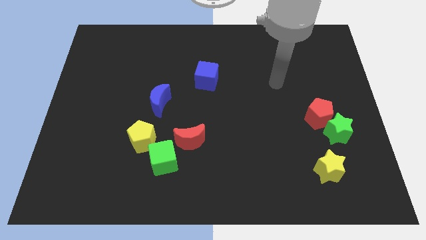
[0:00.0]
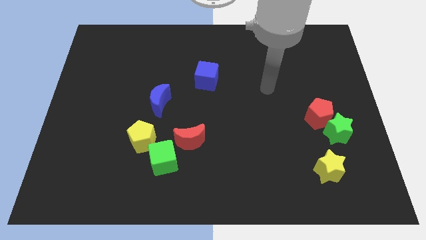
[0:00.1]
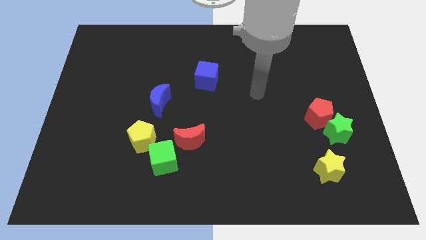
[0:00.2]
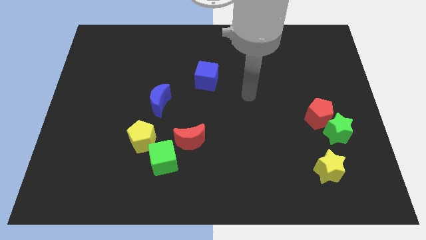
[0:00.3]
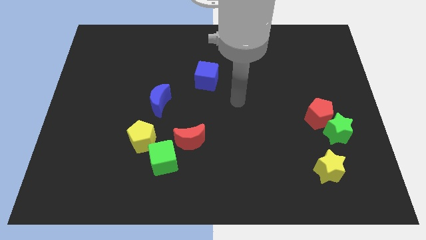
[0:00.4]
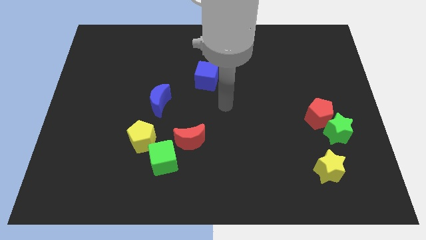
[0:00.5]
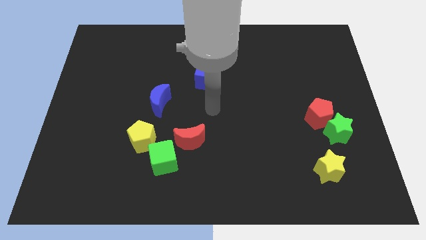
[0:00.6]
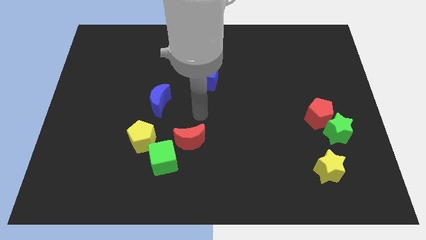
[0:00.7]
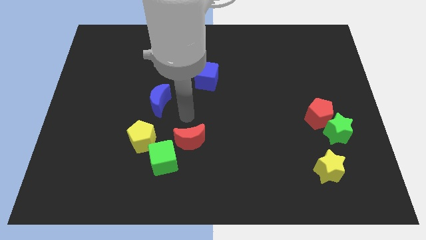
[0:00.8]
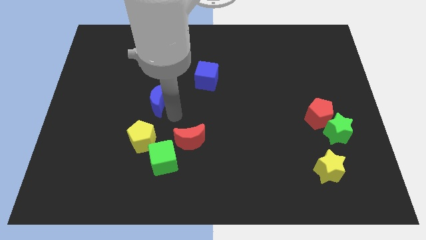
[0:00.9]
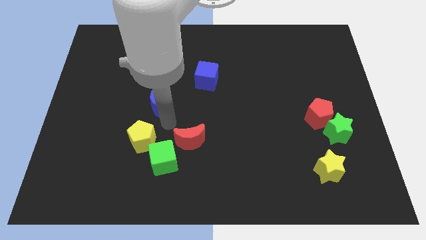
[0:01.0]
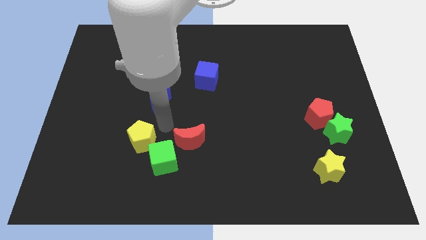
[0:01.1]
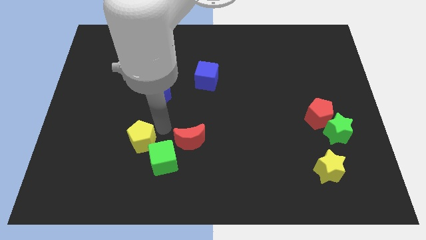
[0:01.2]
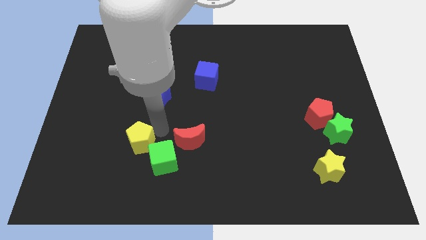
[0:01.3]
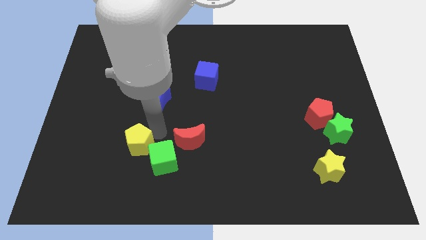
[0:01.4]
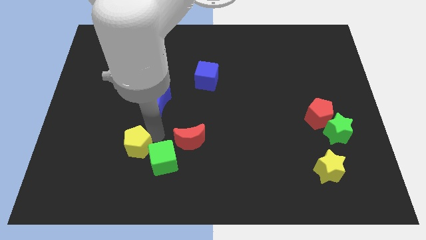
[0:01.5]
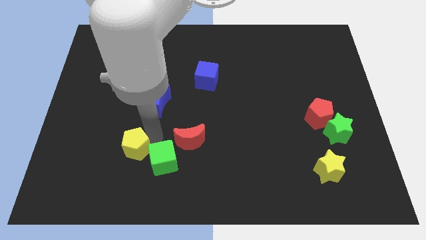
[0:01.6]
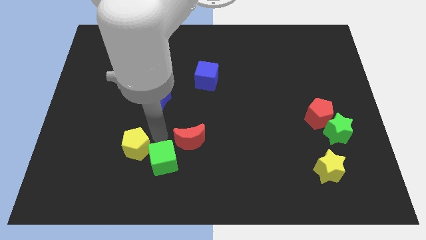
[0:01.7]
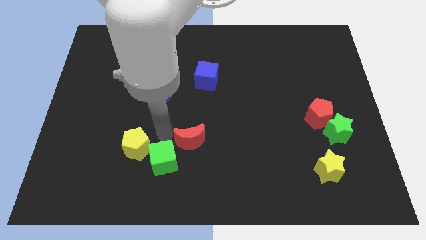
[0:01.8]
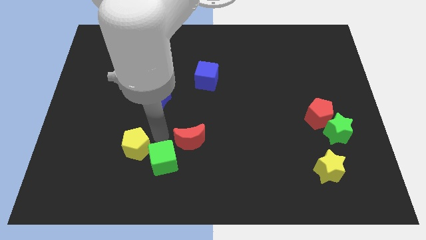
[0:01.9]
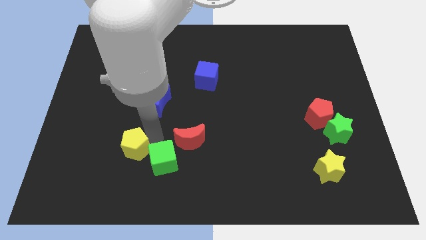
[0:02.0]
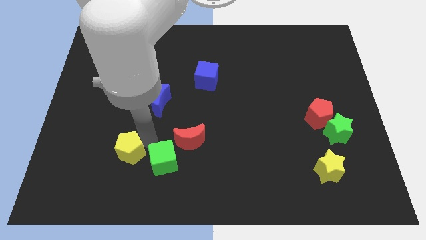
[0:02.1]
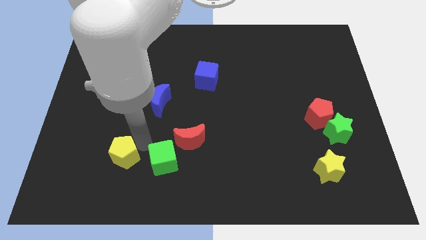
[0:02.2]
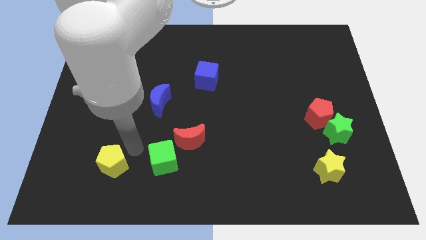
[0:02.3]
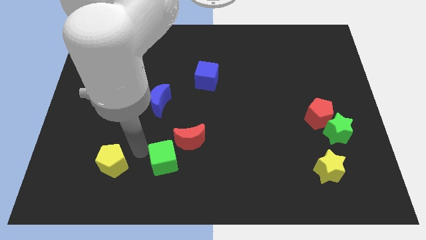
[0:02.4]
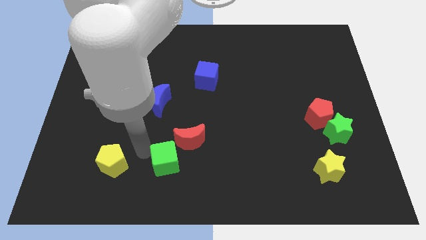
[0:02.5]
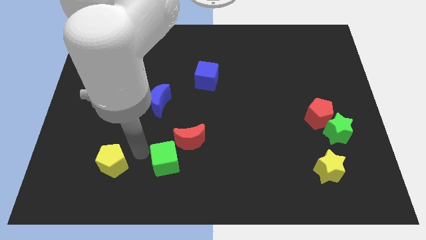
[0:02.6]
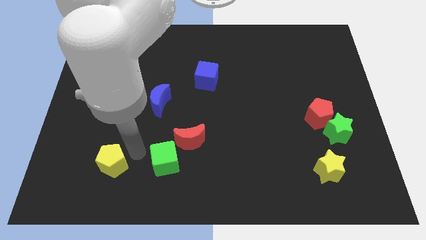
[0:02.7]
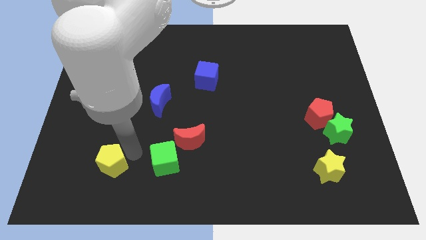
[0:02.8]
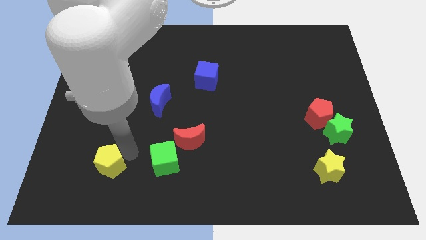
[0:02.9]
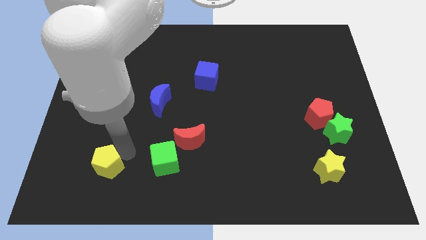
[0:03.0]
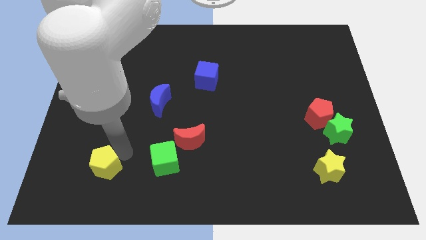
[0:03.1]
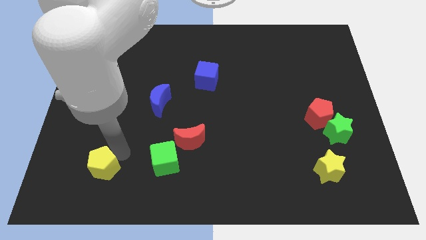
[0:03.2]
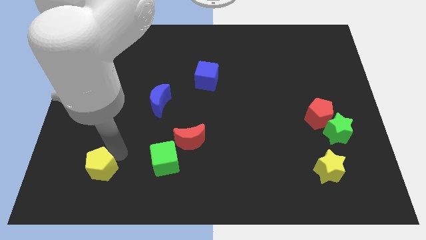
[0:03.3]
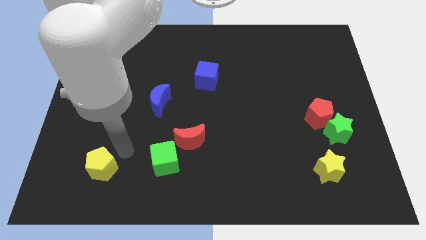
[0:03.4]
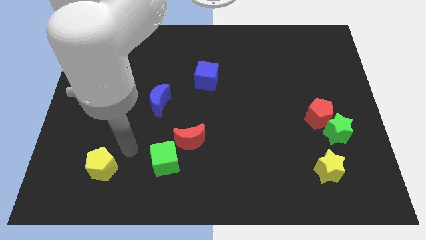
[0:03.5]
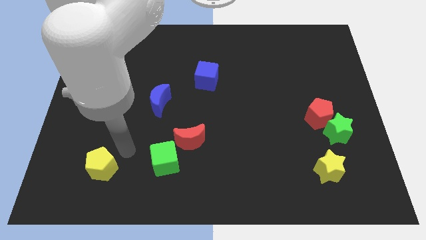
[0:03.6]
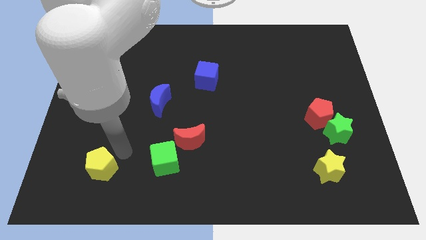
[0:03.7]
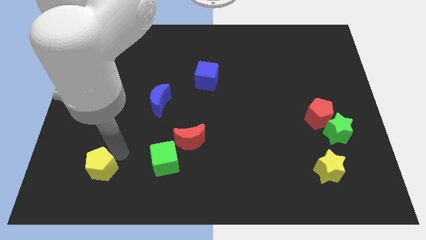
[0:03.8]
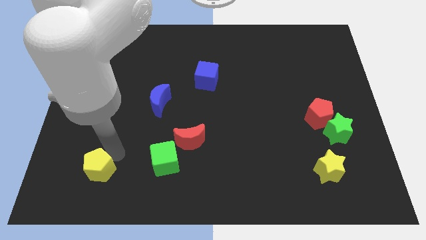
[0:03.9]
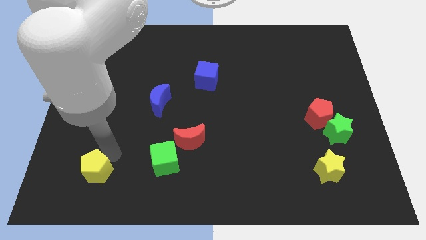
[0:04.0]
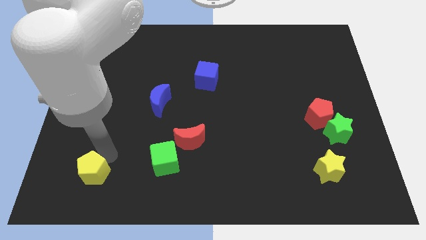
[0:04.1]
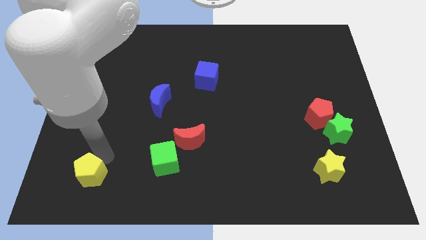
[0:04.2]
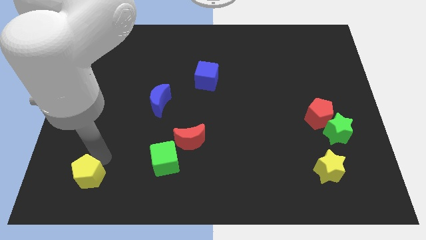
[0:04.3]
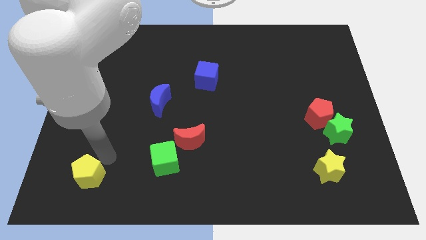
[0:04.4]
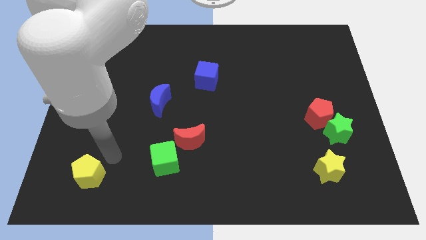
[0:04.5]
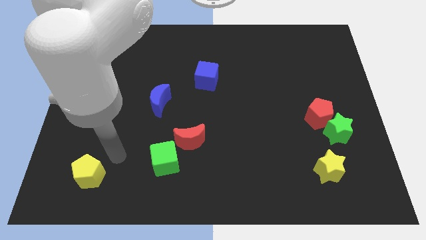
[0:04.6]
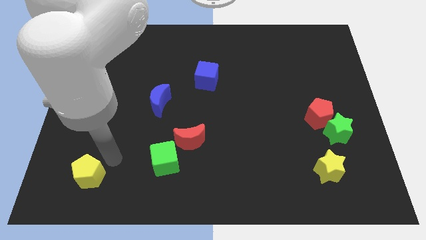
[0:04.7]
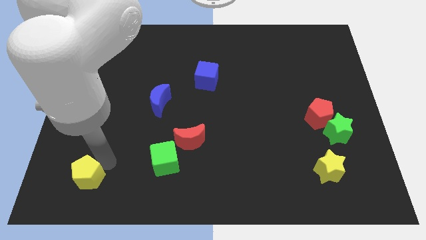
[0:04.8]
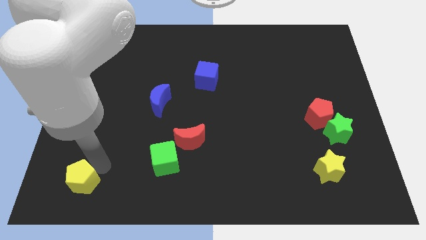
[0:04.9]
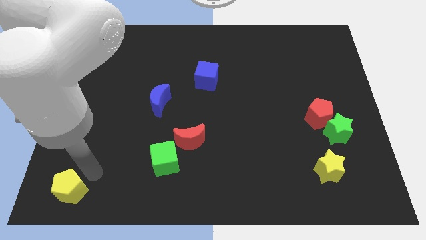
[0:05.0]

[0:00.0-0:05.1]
put the yellow pentagon to the bottom left corner

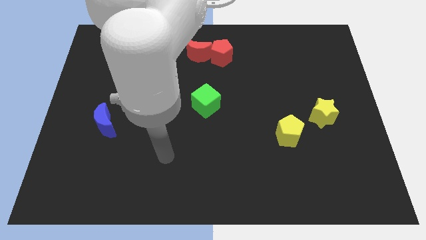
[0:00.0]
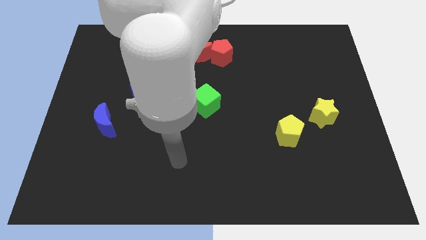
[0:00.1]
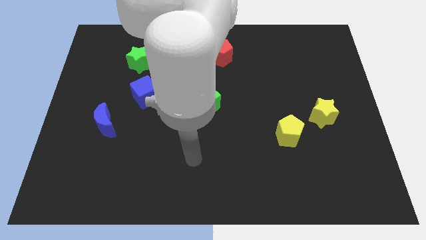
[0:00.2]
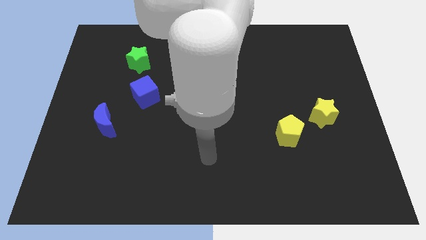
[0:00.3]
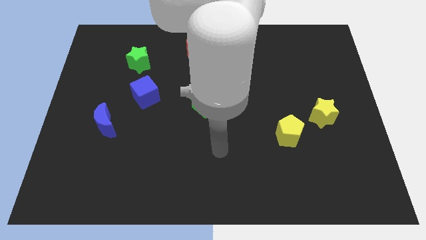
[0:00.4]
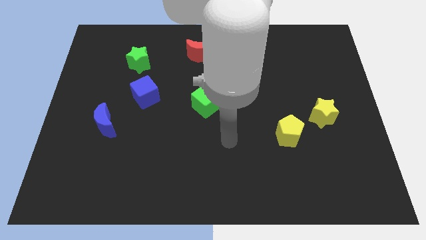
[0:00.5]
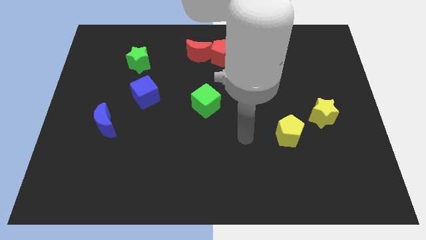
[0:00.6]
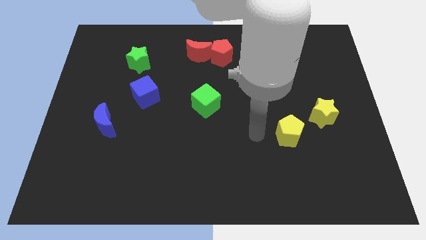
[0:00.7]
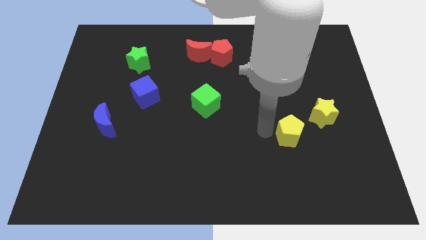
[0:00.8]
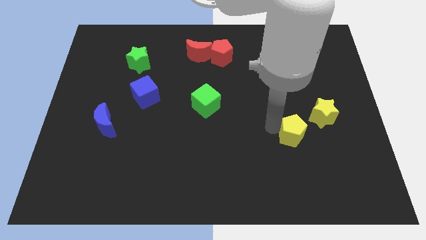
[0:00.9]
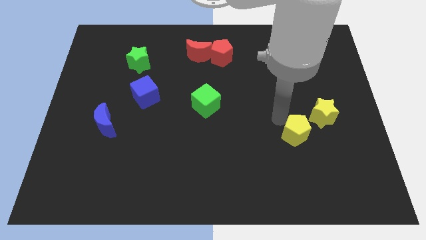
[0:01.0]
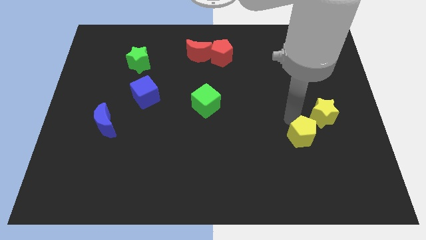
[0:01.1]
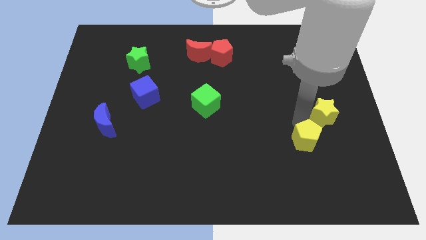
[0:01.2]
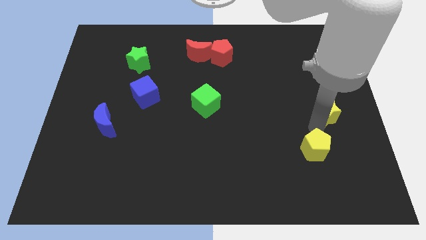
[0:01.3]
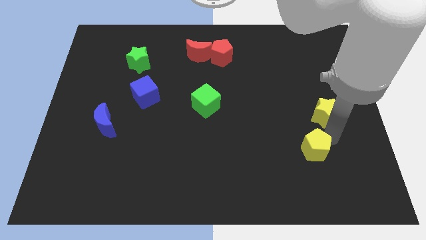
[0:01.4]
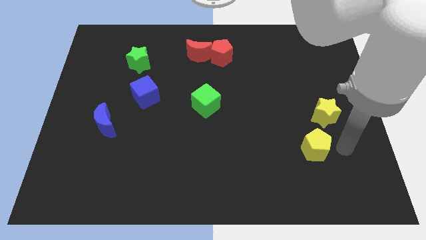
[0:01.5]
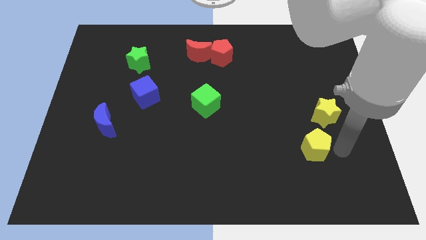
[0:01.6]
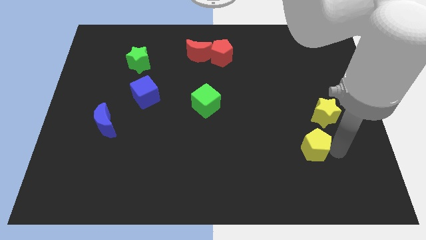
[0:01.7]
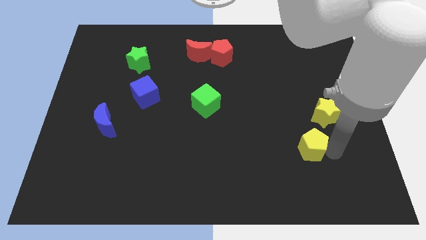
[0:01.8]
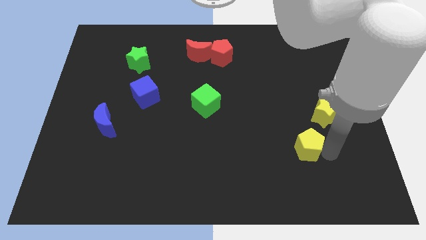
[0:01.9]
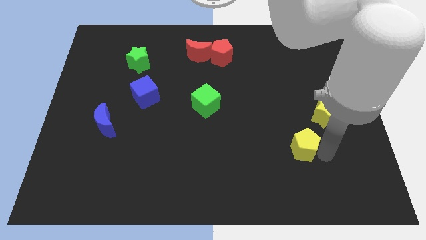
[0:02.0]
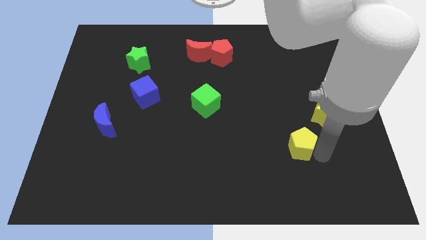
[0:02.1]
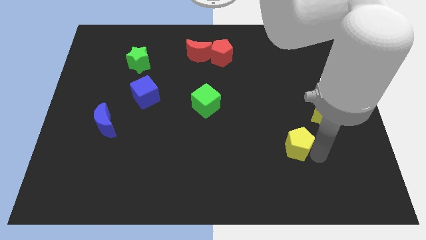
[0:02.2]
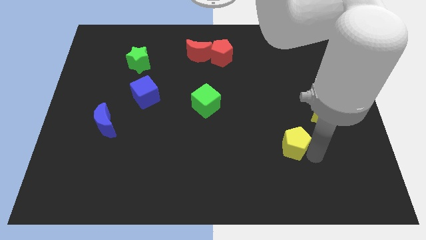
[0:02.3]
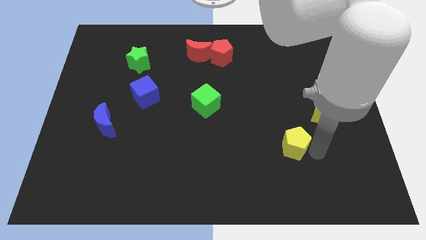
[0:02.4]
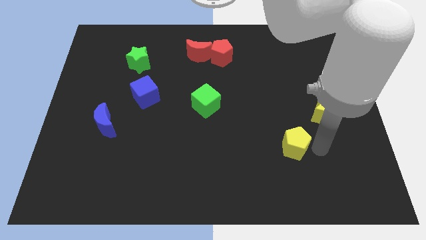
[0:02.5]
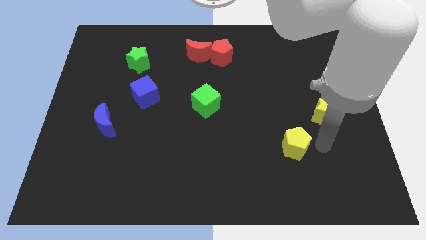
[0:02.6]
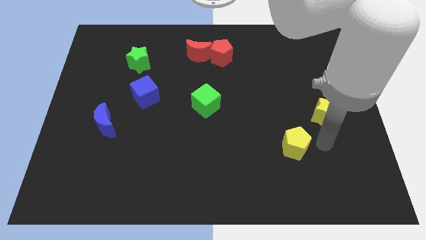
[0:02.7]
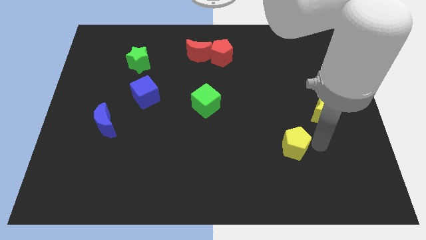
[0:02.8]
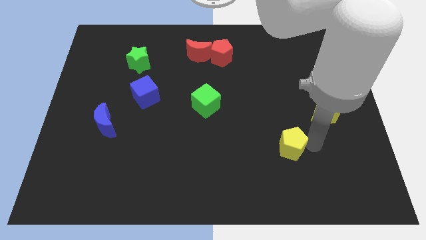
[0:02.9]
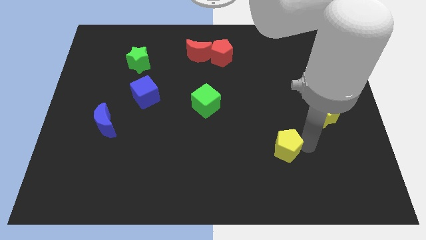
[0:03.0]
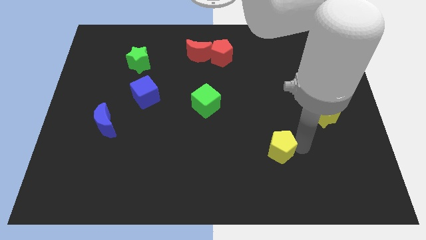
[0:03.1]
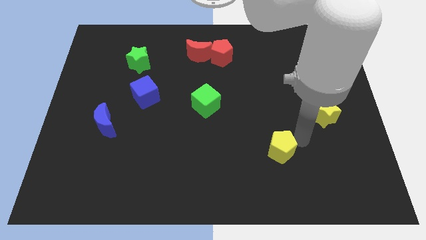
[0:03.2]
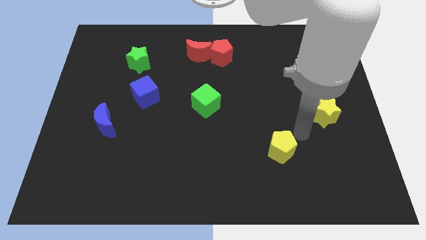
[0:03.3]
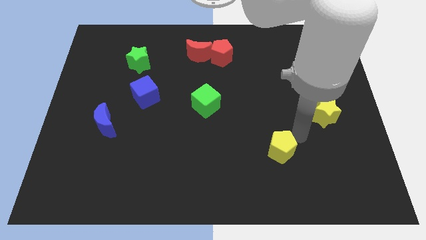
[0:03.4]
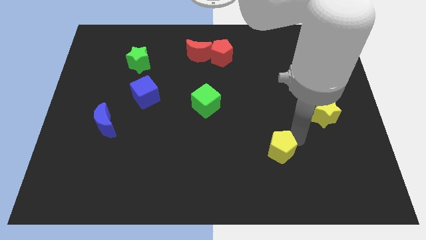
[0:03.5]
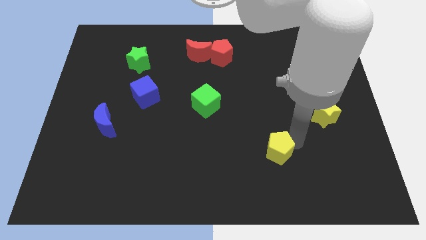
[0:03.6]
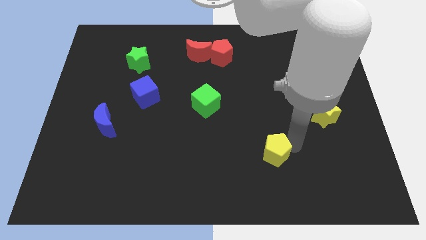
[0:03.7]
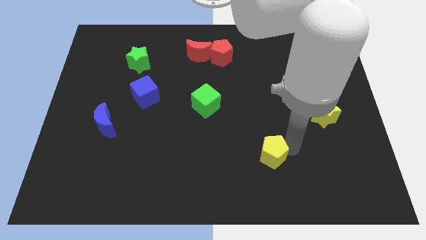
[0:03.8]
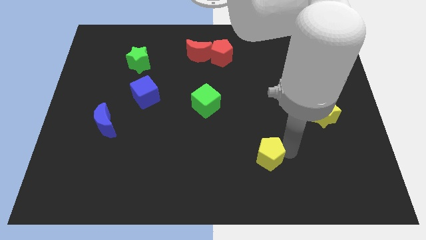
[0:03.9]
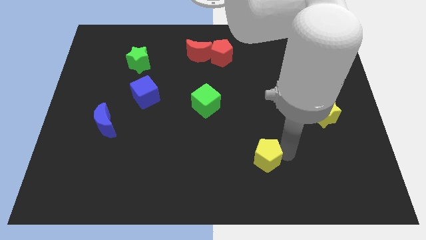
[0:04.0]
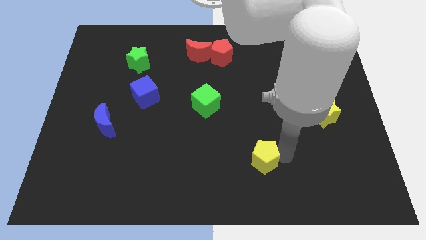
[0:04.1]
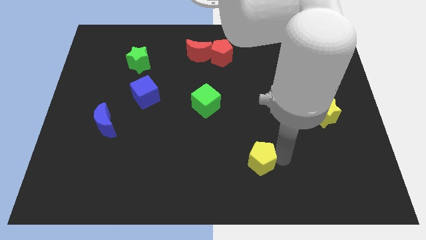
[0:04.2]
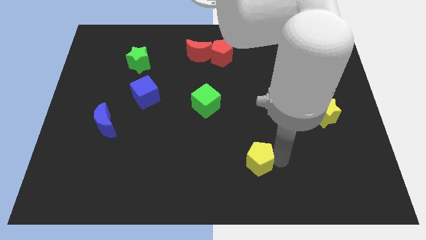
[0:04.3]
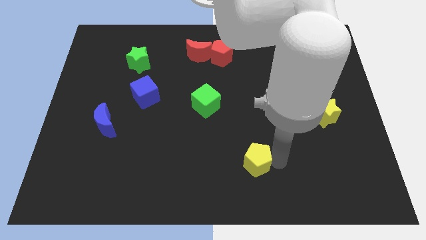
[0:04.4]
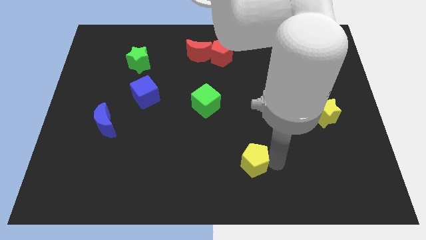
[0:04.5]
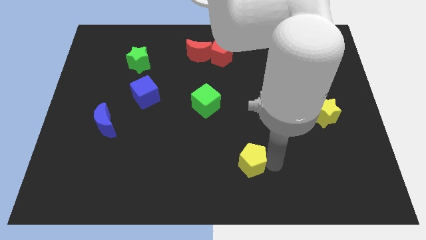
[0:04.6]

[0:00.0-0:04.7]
slide the yellow pentagon to the bottom side
